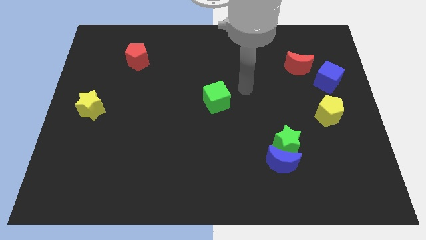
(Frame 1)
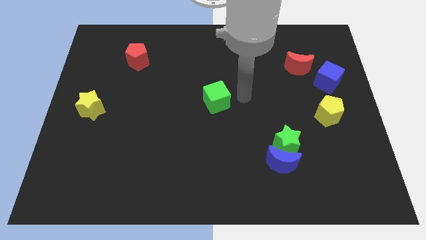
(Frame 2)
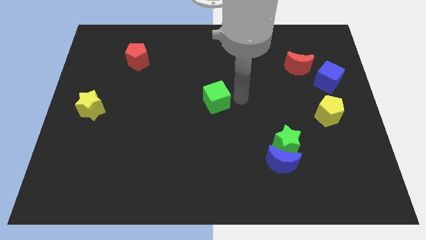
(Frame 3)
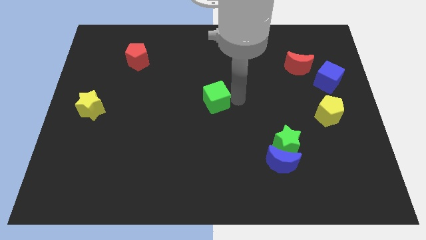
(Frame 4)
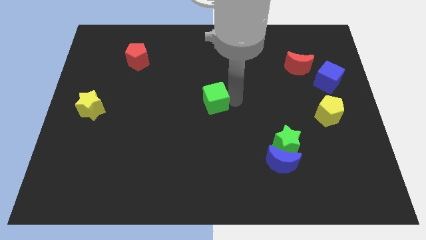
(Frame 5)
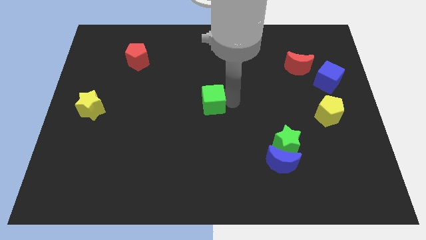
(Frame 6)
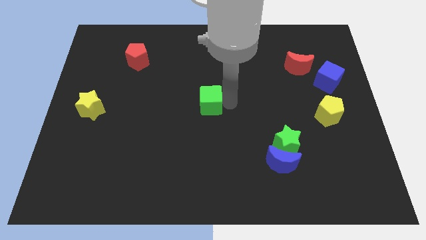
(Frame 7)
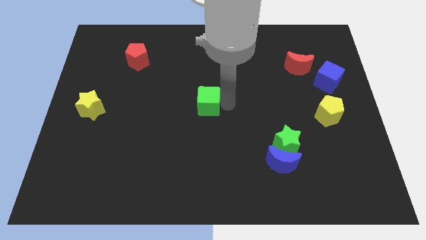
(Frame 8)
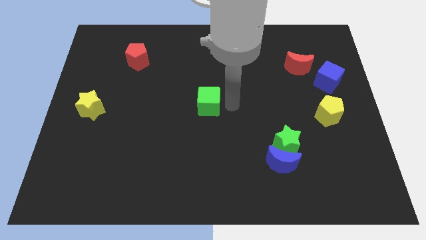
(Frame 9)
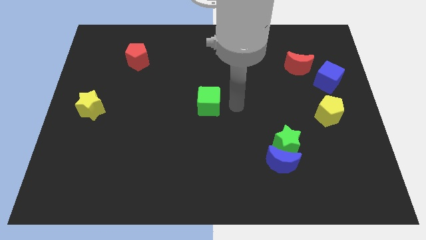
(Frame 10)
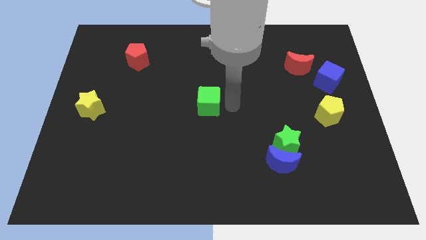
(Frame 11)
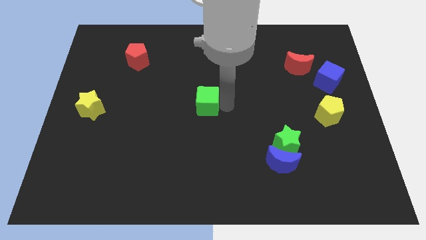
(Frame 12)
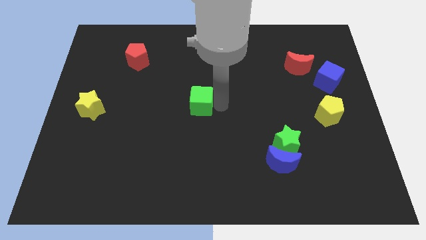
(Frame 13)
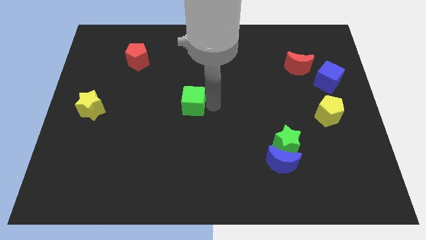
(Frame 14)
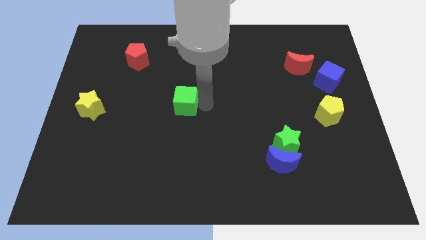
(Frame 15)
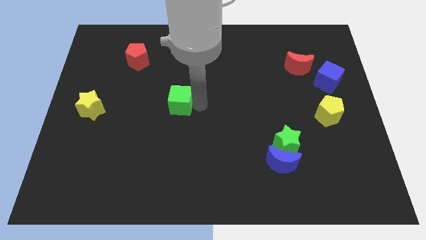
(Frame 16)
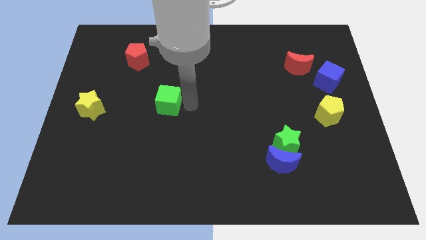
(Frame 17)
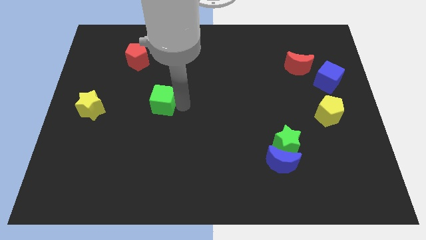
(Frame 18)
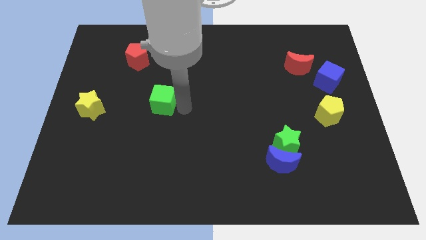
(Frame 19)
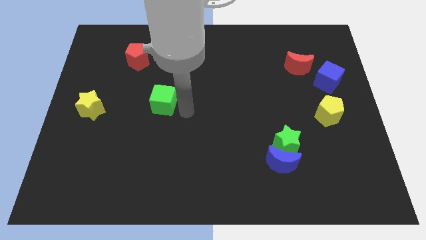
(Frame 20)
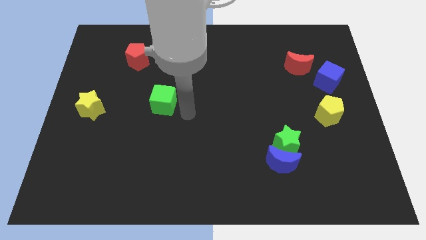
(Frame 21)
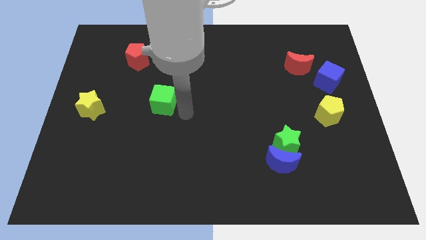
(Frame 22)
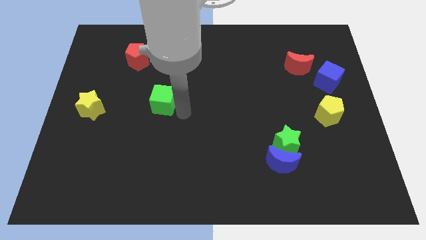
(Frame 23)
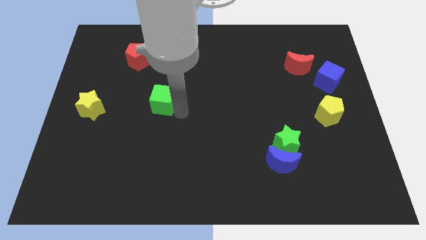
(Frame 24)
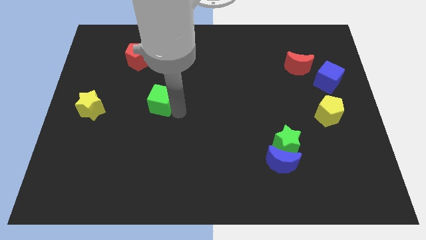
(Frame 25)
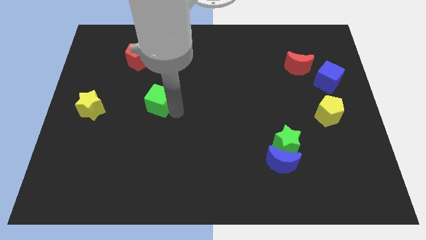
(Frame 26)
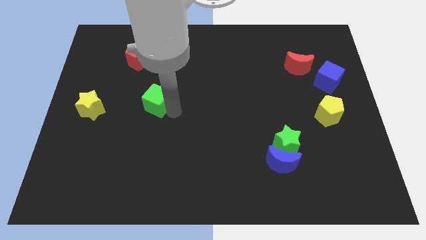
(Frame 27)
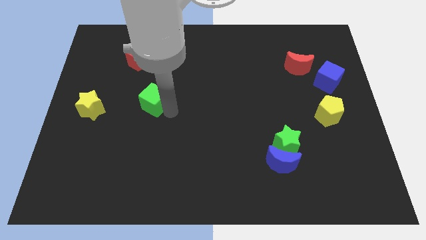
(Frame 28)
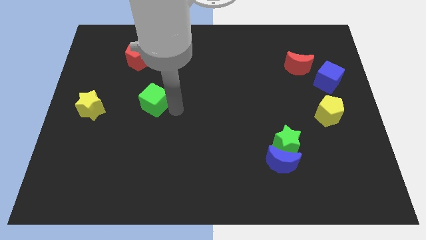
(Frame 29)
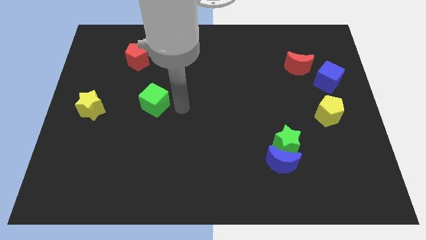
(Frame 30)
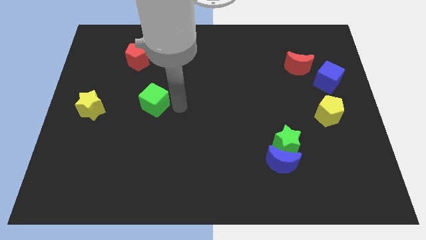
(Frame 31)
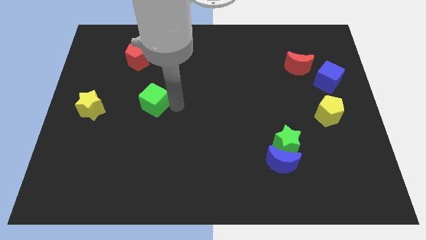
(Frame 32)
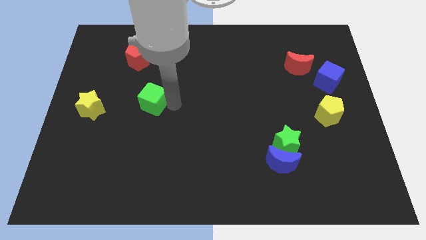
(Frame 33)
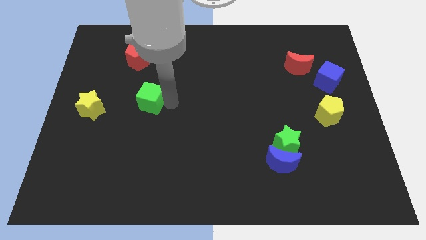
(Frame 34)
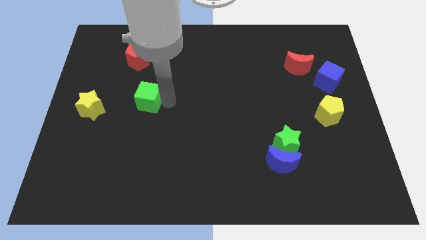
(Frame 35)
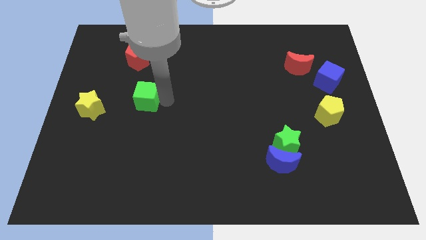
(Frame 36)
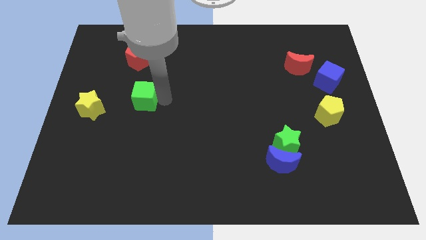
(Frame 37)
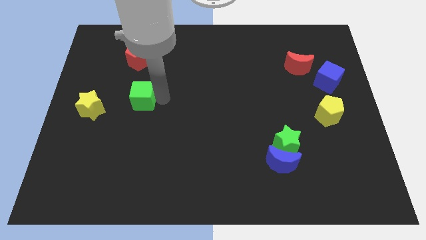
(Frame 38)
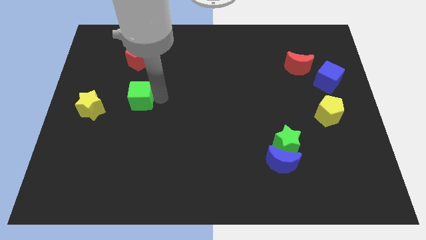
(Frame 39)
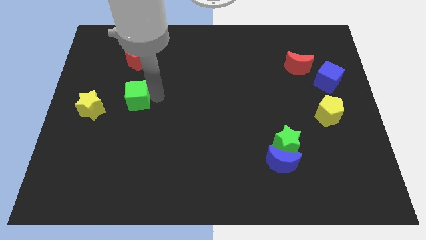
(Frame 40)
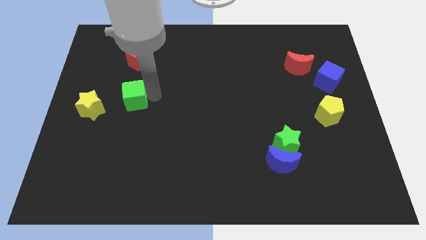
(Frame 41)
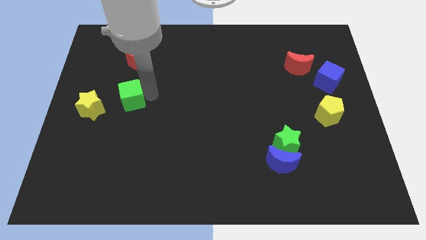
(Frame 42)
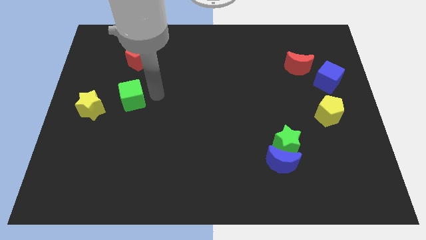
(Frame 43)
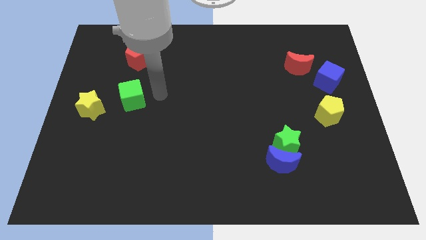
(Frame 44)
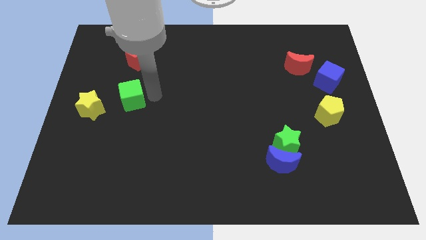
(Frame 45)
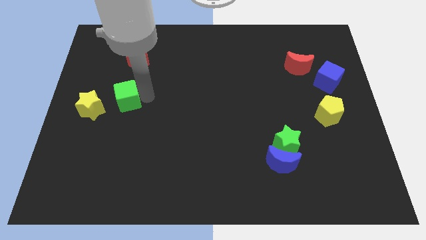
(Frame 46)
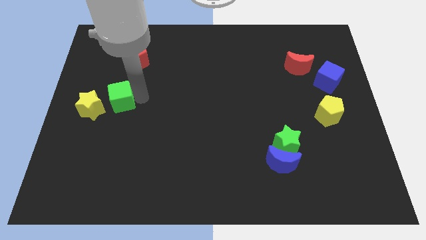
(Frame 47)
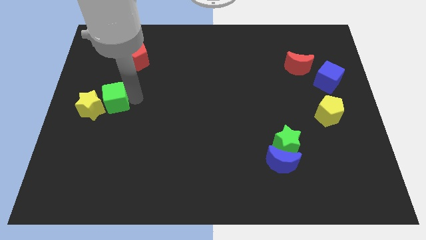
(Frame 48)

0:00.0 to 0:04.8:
put the green cube close to the yellow star

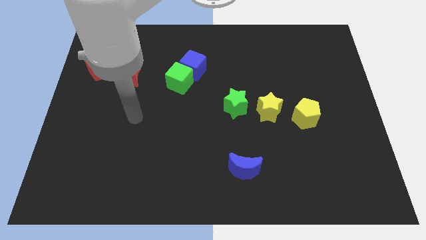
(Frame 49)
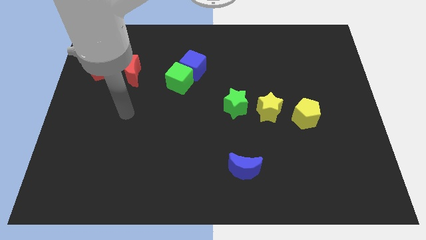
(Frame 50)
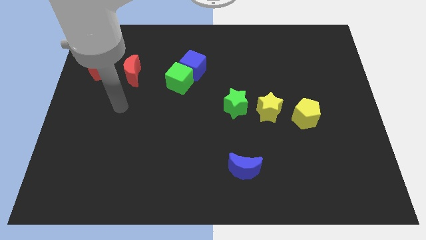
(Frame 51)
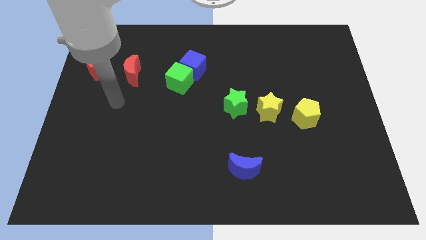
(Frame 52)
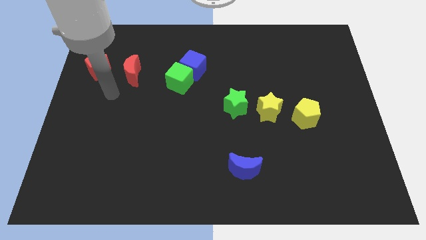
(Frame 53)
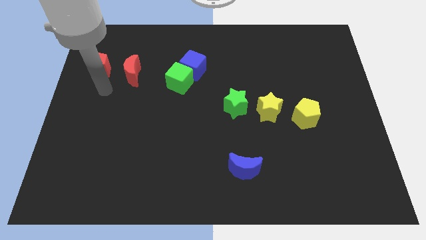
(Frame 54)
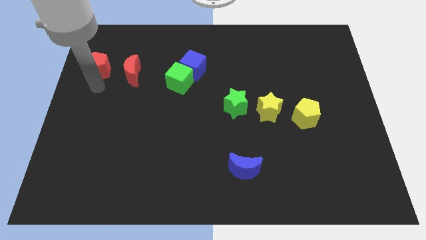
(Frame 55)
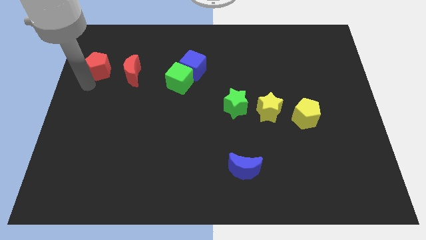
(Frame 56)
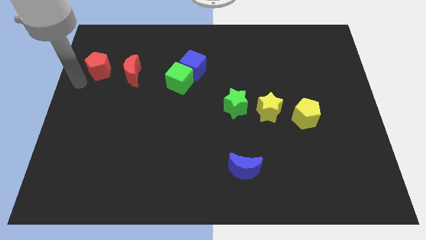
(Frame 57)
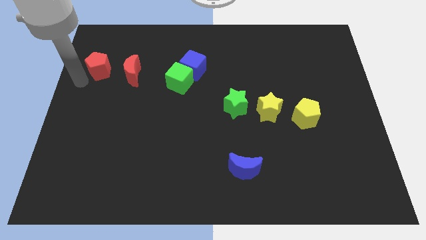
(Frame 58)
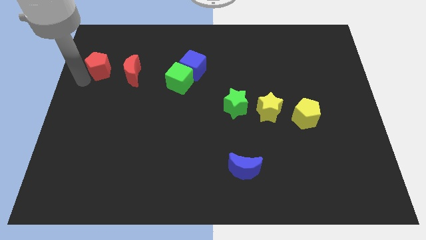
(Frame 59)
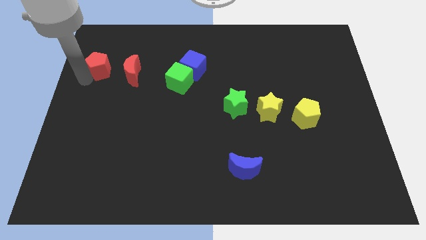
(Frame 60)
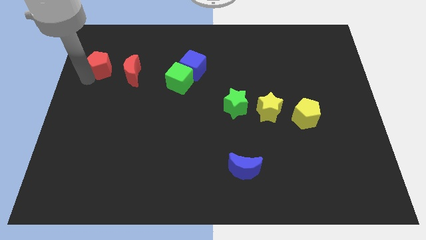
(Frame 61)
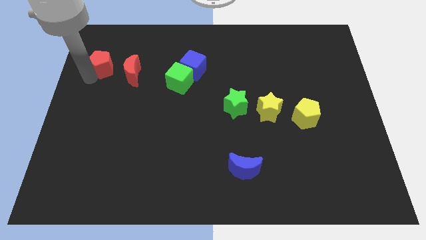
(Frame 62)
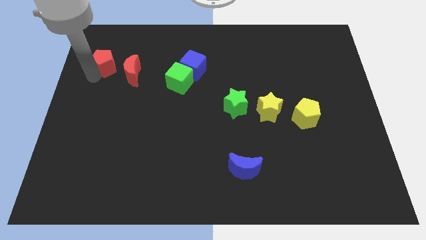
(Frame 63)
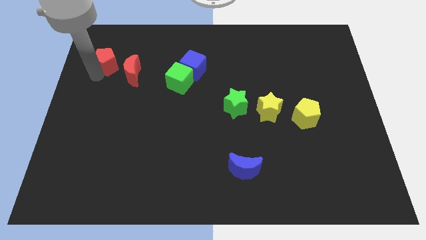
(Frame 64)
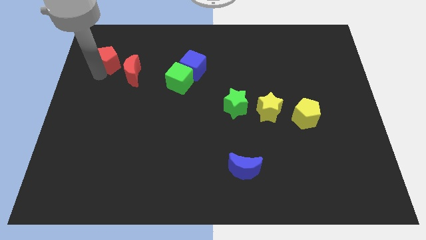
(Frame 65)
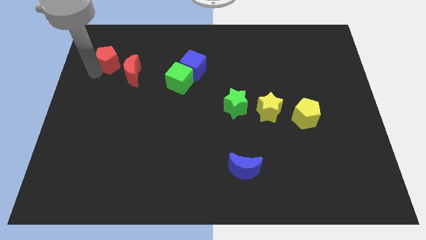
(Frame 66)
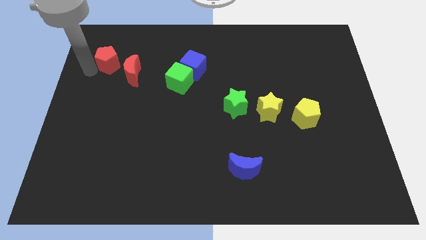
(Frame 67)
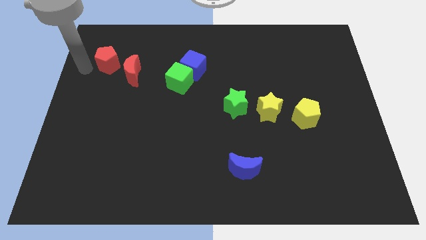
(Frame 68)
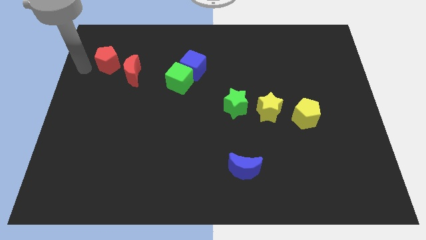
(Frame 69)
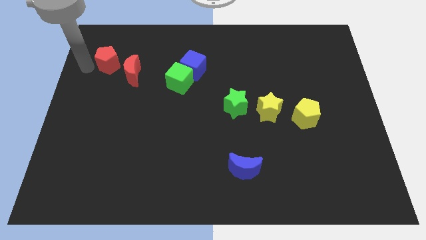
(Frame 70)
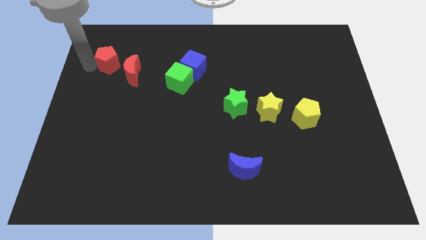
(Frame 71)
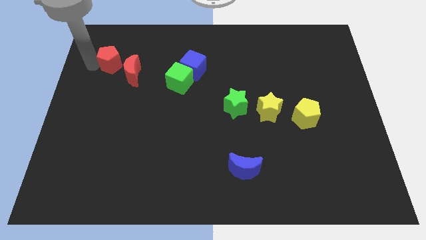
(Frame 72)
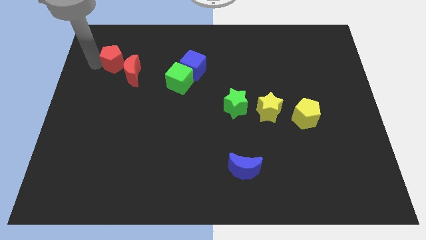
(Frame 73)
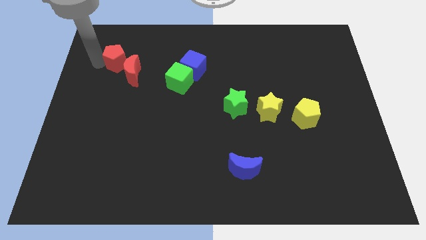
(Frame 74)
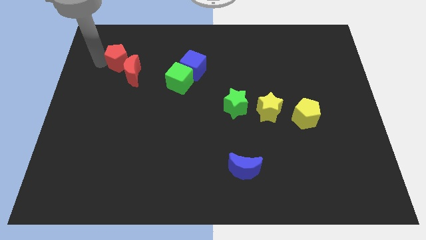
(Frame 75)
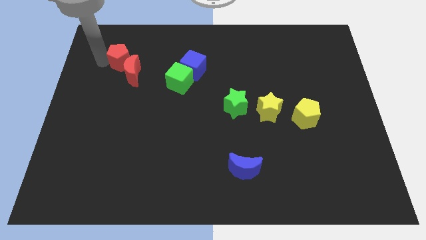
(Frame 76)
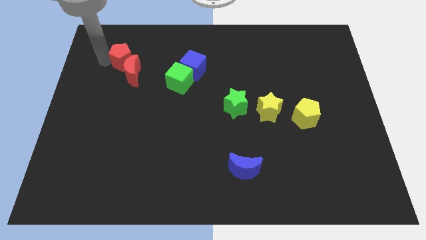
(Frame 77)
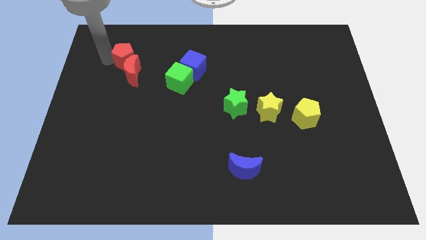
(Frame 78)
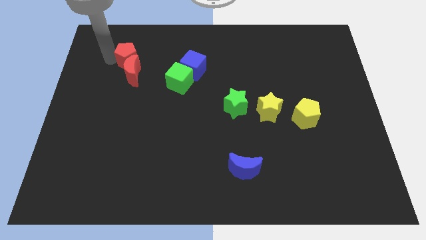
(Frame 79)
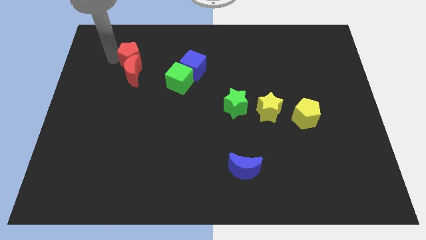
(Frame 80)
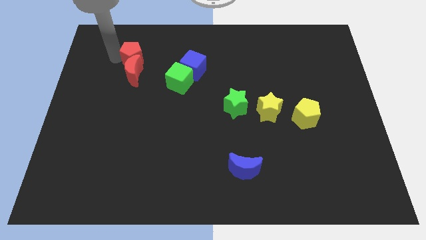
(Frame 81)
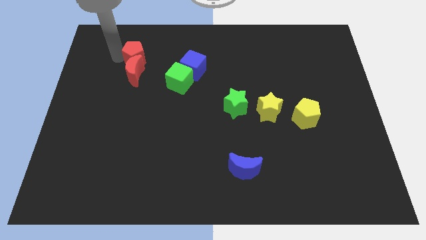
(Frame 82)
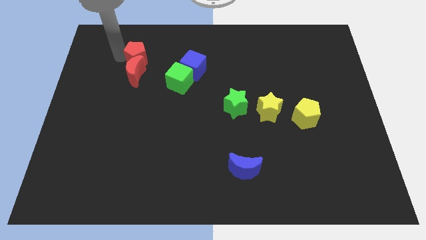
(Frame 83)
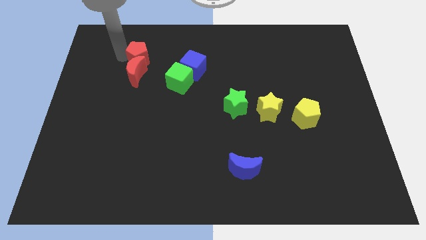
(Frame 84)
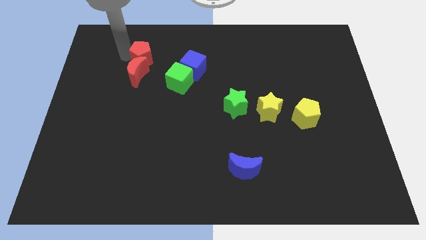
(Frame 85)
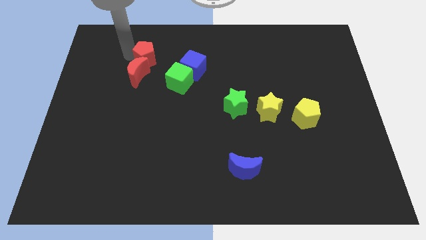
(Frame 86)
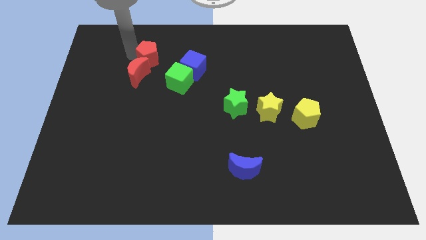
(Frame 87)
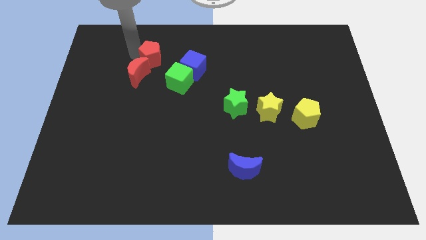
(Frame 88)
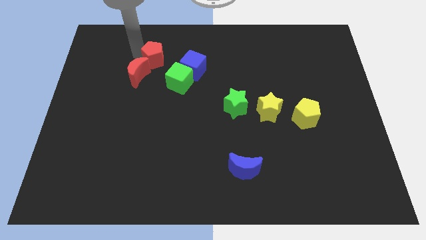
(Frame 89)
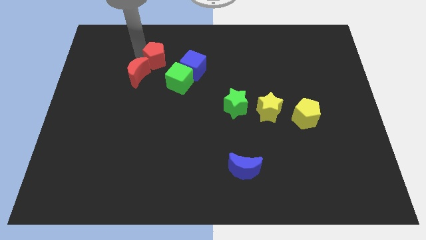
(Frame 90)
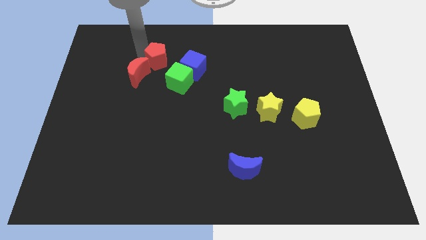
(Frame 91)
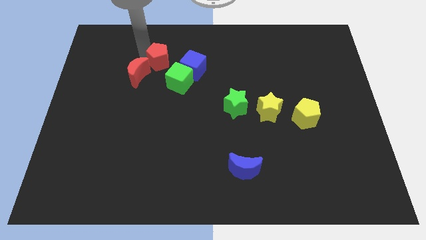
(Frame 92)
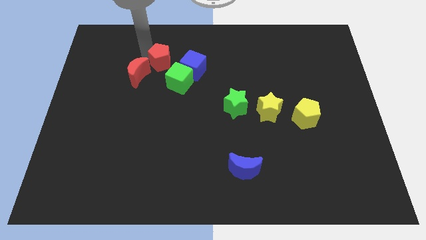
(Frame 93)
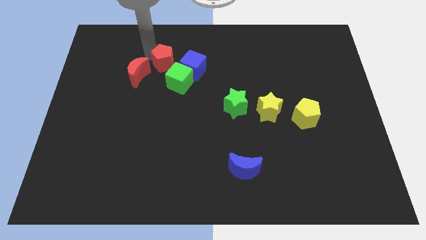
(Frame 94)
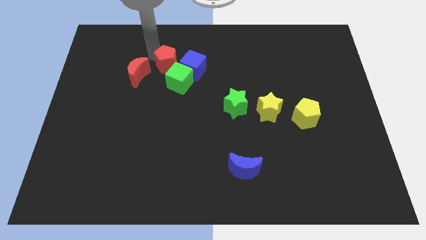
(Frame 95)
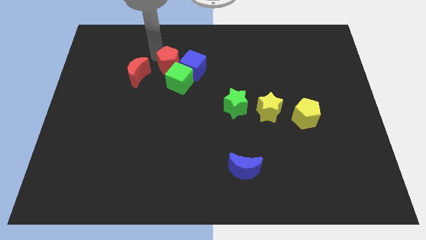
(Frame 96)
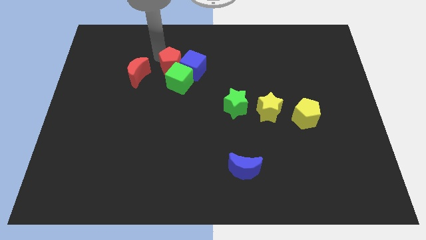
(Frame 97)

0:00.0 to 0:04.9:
push the red pentagon to the blue cube
